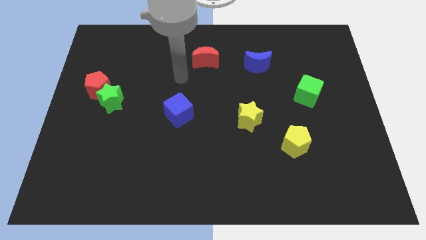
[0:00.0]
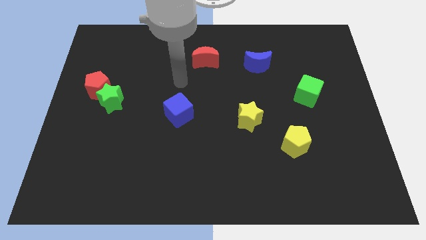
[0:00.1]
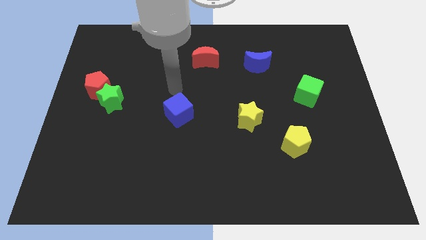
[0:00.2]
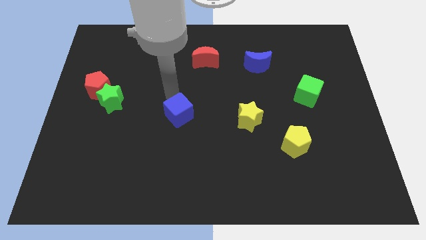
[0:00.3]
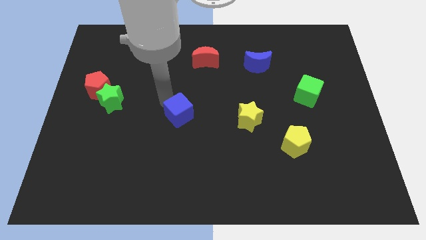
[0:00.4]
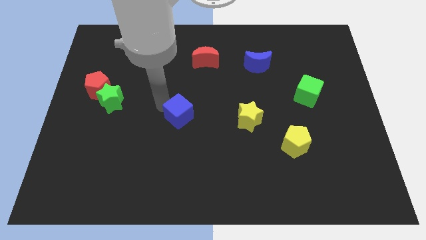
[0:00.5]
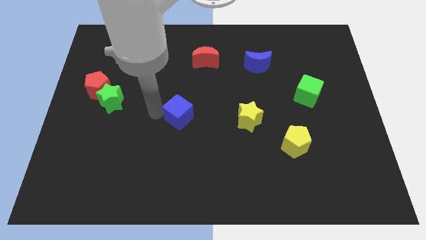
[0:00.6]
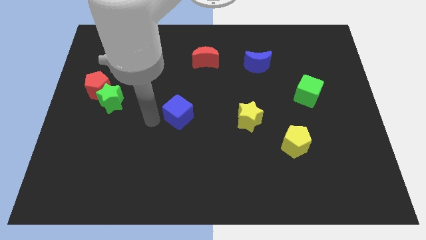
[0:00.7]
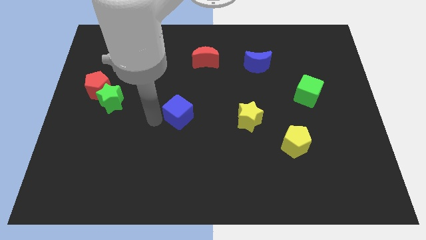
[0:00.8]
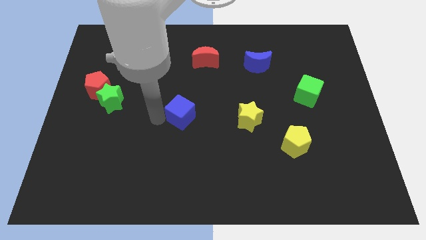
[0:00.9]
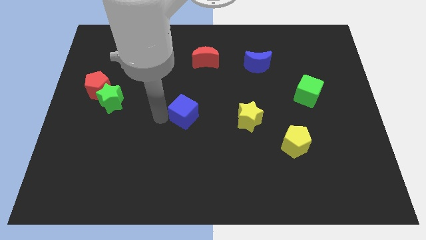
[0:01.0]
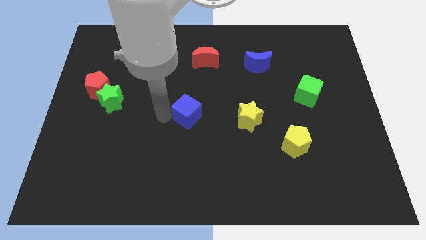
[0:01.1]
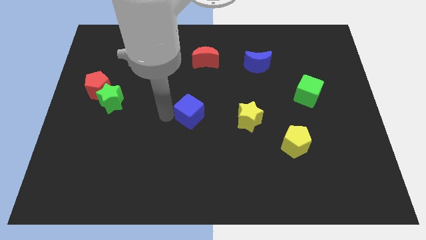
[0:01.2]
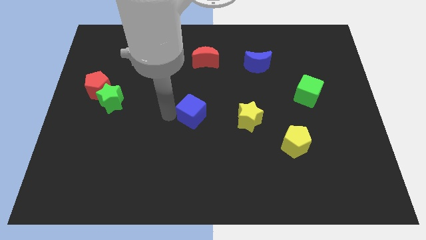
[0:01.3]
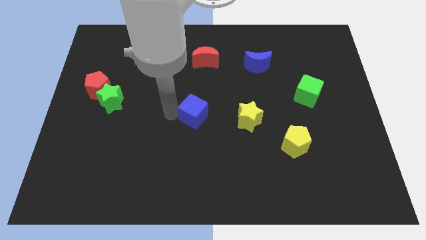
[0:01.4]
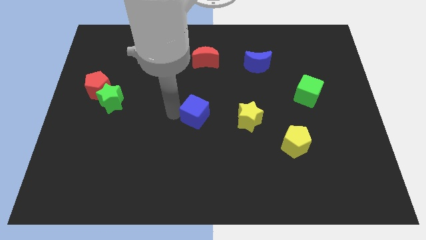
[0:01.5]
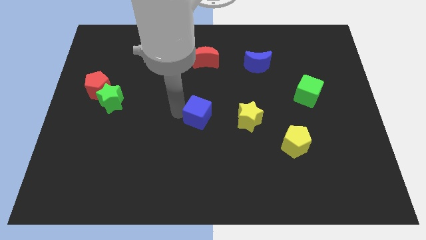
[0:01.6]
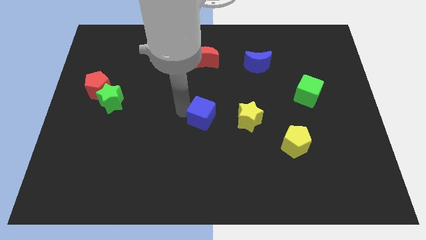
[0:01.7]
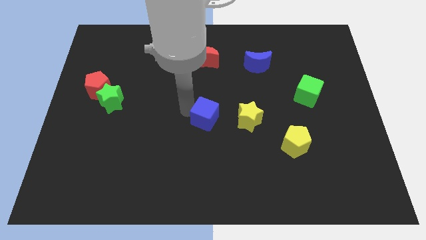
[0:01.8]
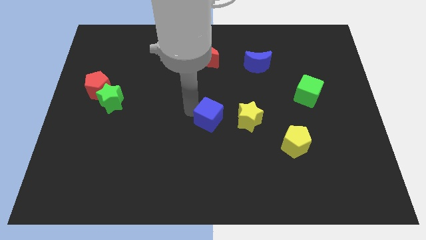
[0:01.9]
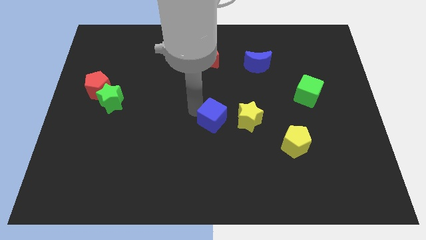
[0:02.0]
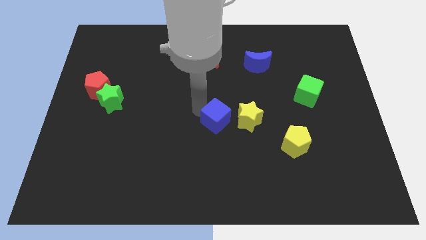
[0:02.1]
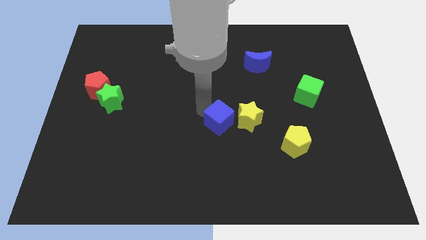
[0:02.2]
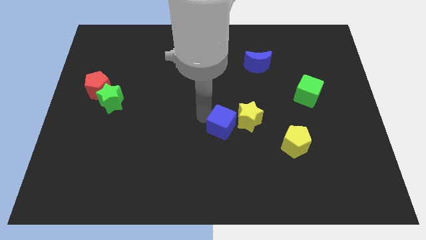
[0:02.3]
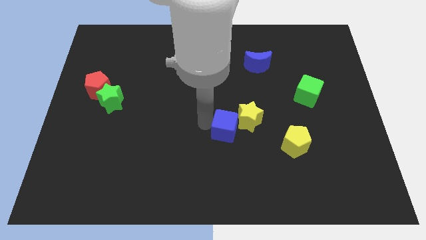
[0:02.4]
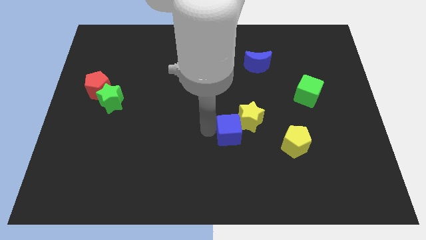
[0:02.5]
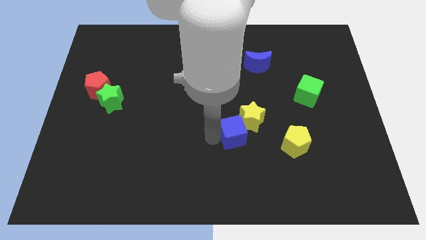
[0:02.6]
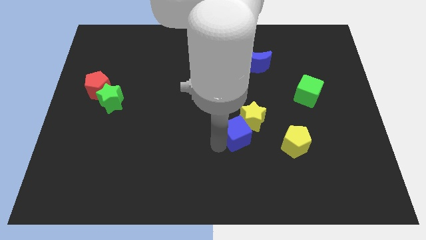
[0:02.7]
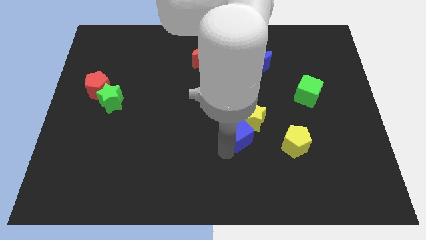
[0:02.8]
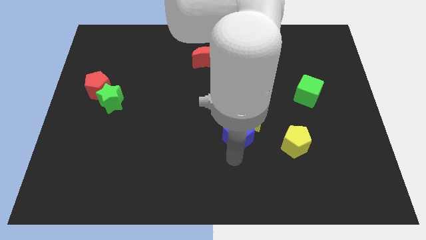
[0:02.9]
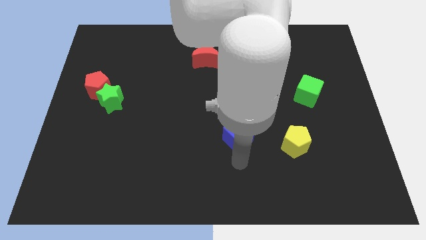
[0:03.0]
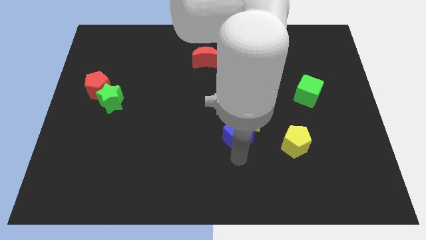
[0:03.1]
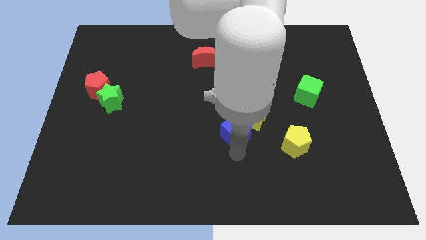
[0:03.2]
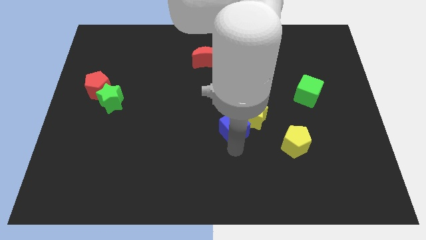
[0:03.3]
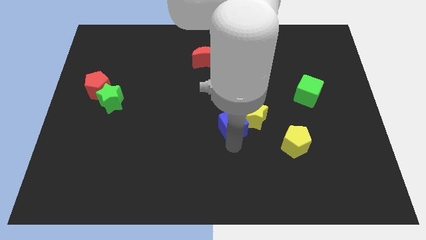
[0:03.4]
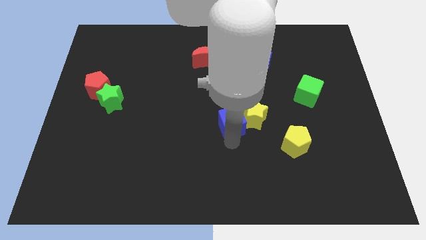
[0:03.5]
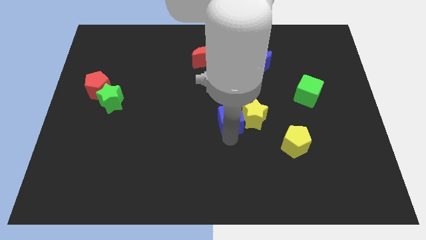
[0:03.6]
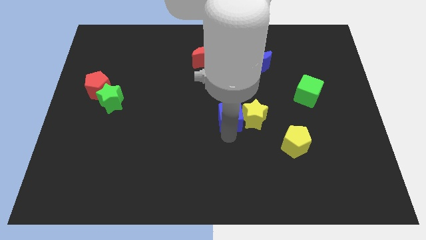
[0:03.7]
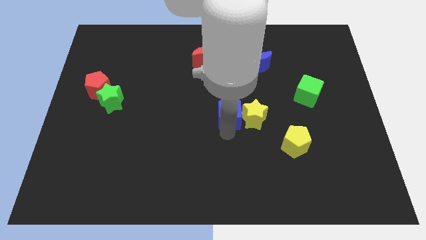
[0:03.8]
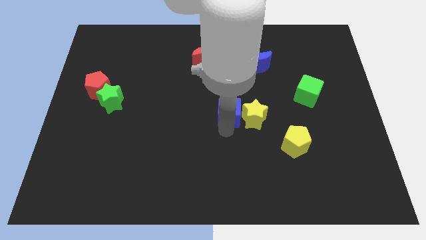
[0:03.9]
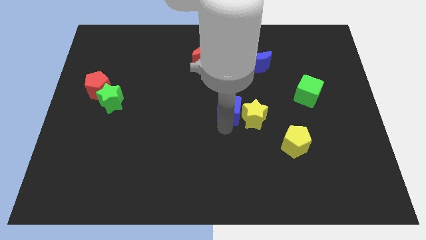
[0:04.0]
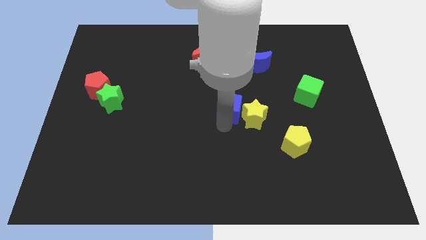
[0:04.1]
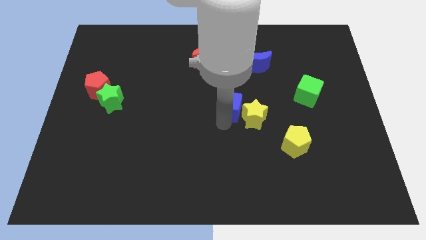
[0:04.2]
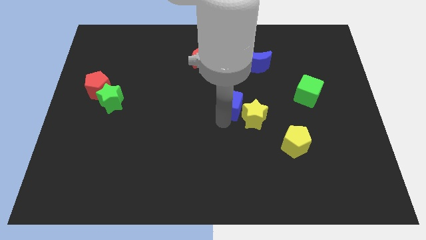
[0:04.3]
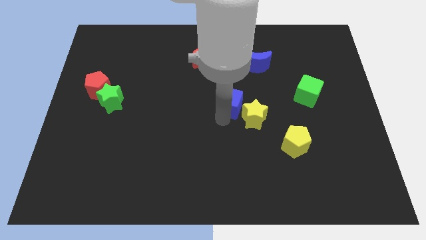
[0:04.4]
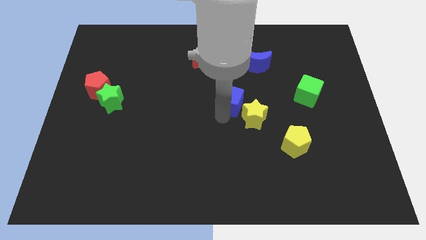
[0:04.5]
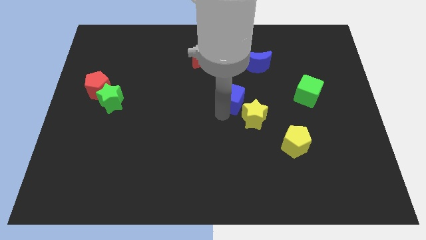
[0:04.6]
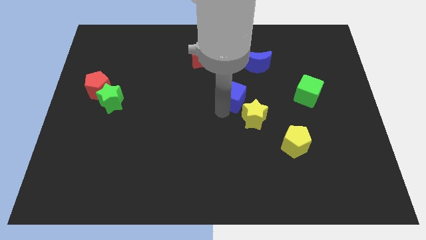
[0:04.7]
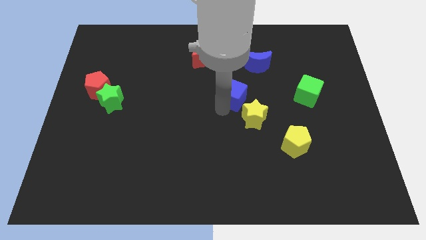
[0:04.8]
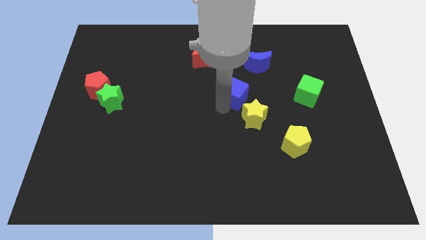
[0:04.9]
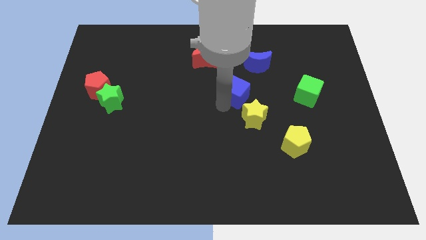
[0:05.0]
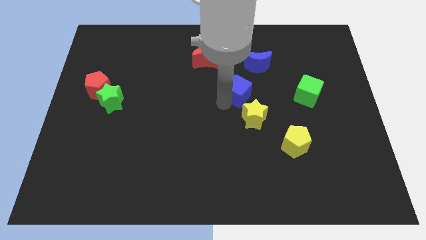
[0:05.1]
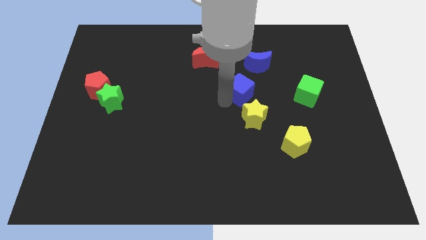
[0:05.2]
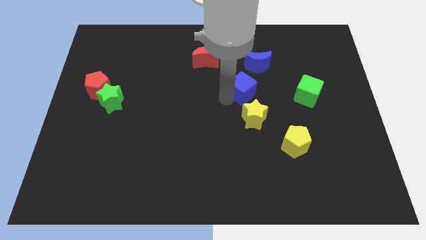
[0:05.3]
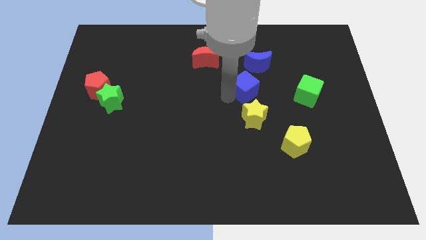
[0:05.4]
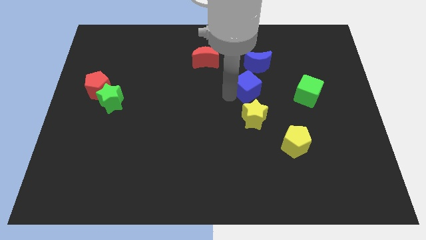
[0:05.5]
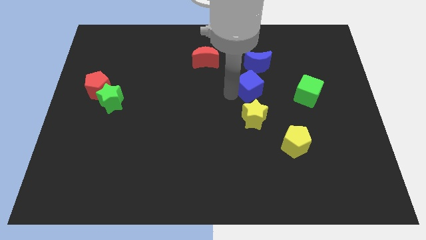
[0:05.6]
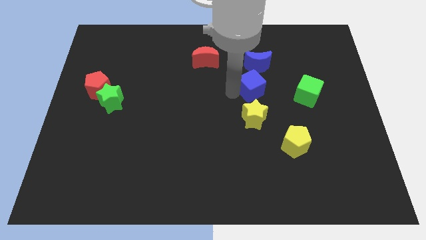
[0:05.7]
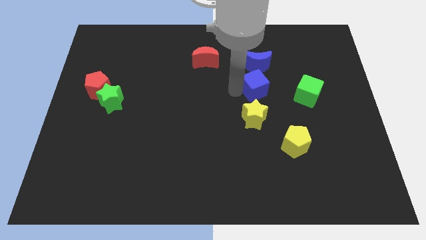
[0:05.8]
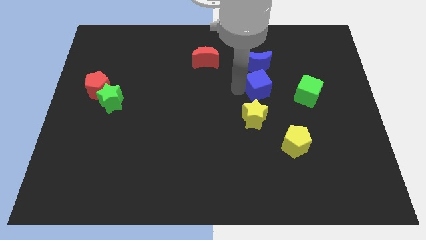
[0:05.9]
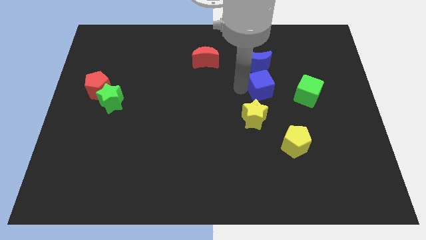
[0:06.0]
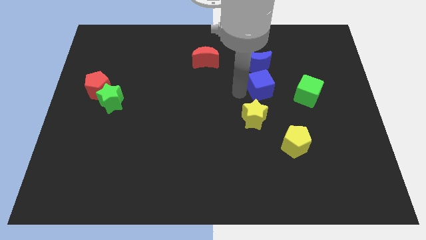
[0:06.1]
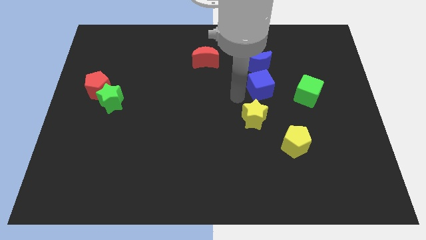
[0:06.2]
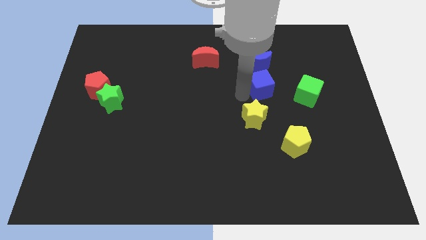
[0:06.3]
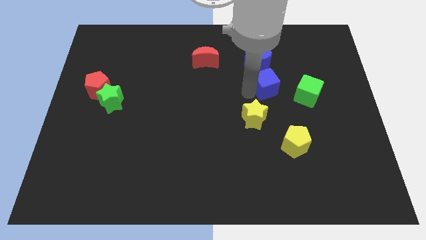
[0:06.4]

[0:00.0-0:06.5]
move the blue cube to the bottom right of the blue moon

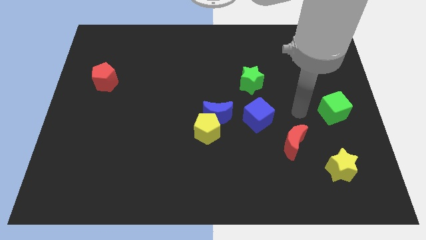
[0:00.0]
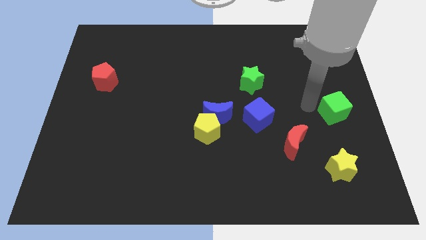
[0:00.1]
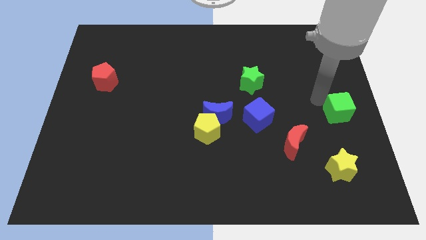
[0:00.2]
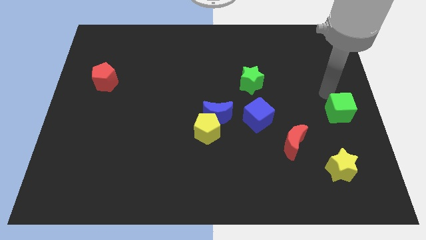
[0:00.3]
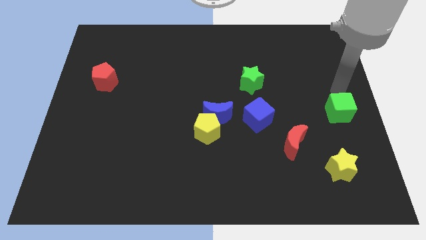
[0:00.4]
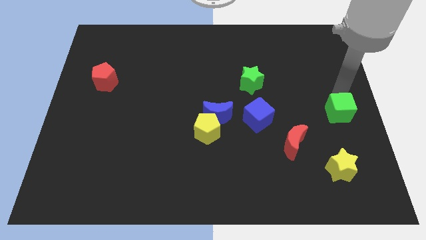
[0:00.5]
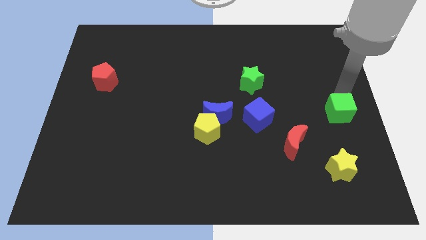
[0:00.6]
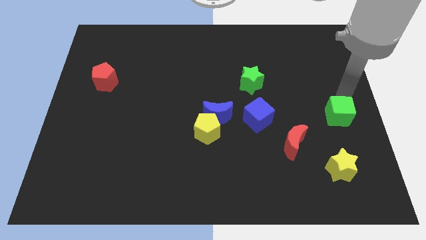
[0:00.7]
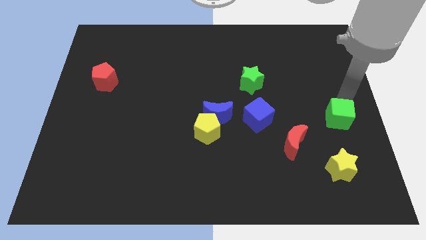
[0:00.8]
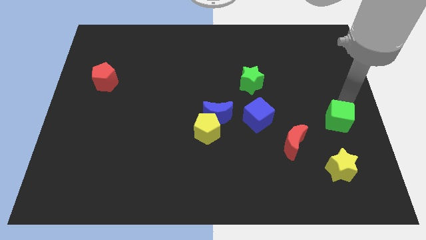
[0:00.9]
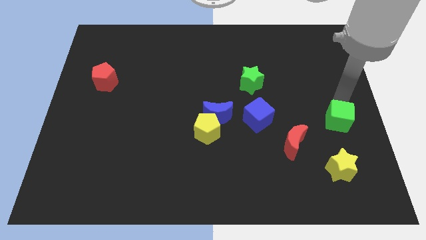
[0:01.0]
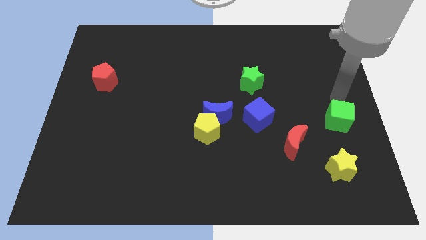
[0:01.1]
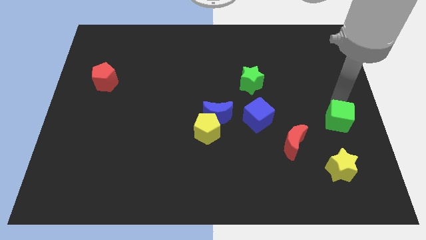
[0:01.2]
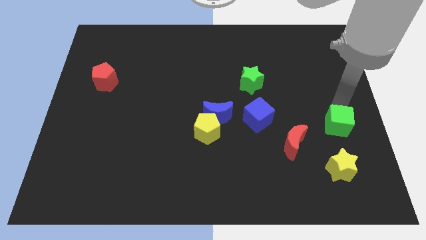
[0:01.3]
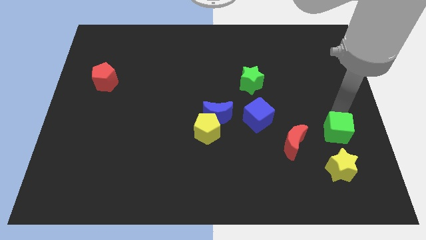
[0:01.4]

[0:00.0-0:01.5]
push the green cube just right of the red moon
